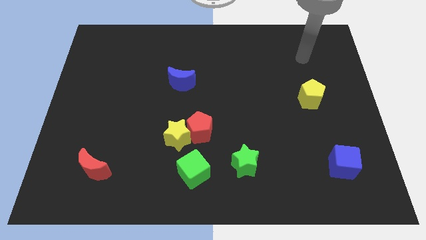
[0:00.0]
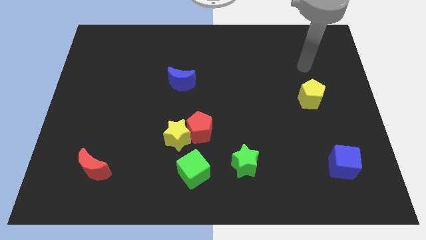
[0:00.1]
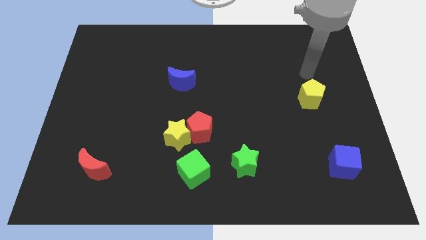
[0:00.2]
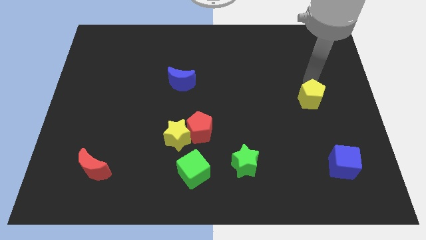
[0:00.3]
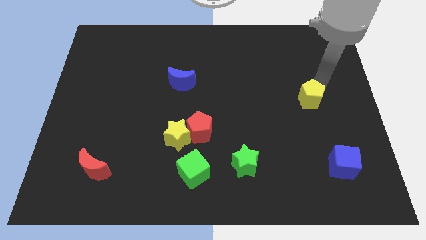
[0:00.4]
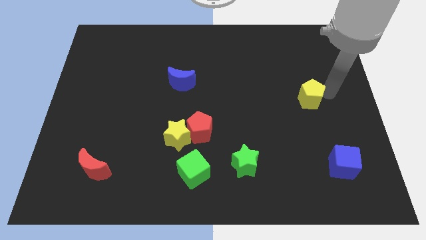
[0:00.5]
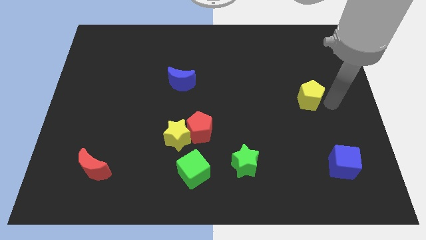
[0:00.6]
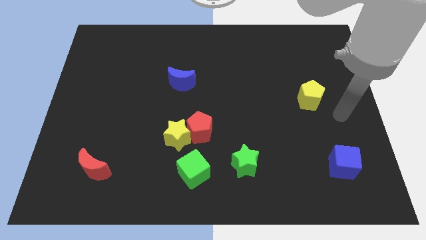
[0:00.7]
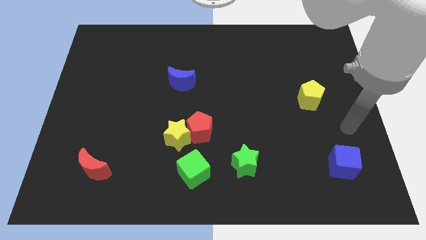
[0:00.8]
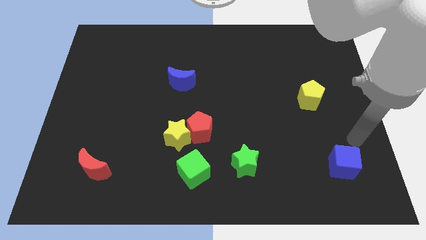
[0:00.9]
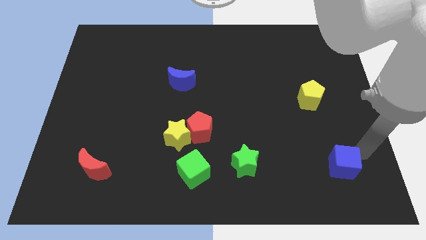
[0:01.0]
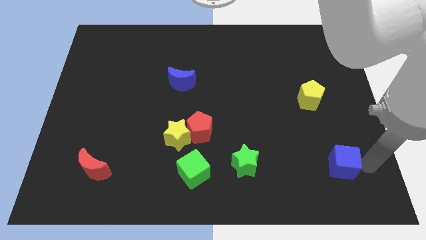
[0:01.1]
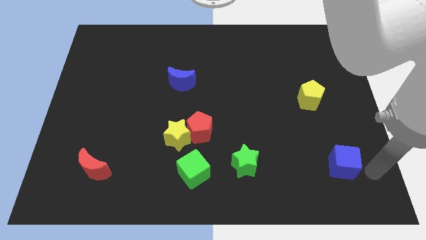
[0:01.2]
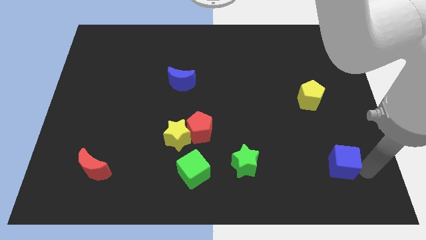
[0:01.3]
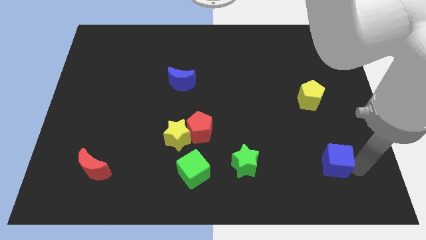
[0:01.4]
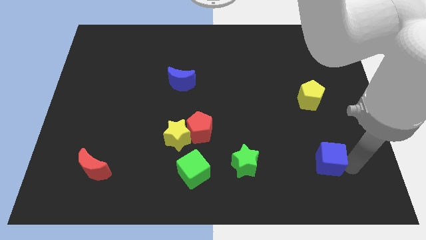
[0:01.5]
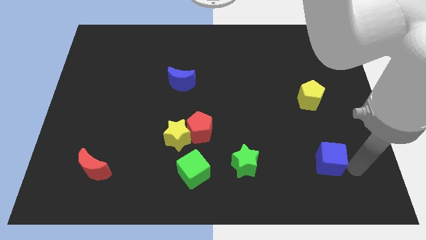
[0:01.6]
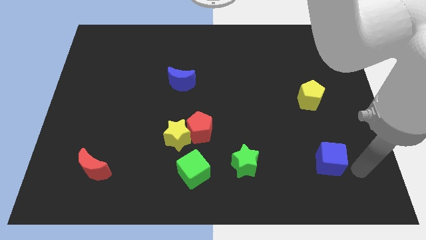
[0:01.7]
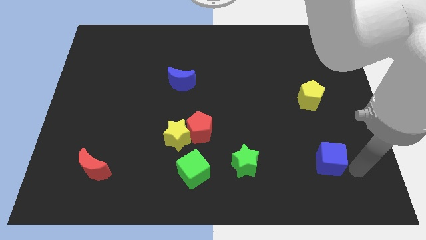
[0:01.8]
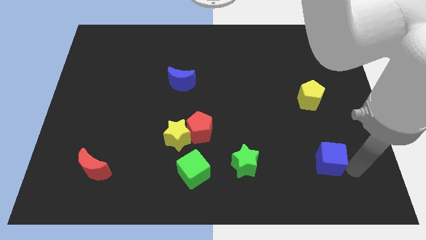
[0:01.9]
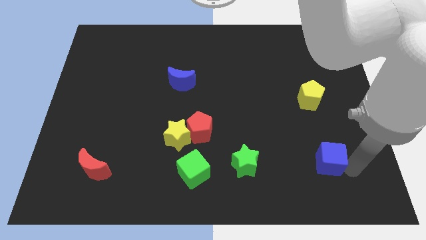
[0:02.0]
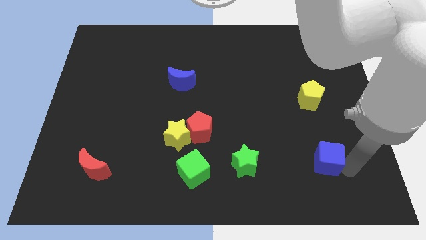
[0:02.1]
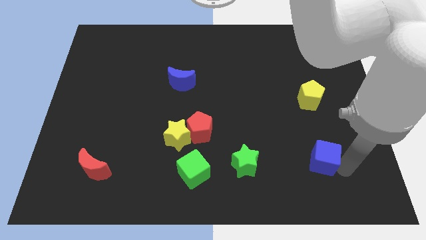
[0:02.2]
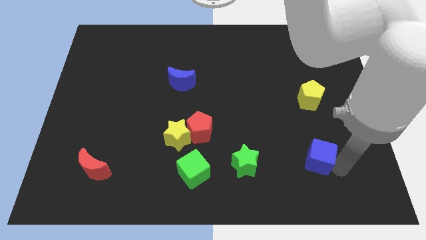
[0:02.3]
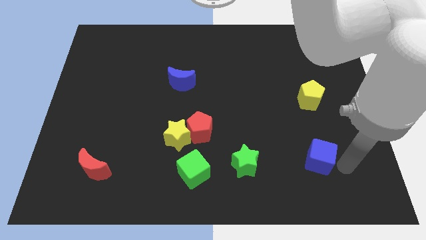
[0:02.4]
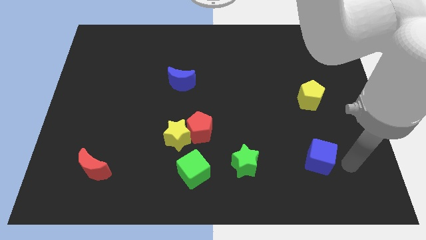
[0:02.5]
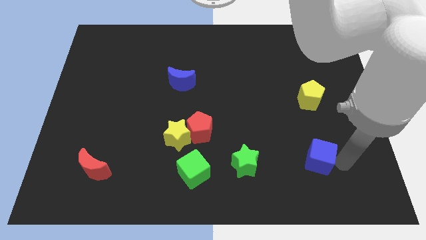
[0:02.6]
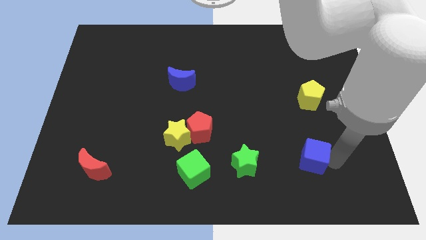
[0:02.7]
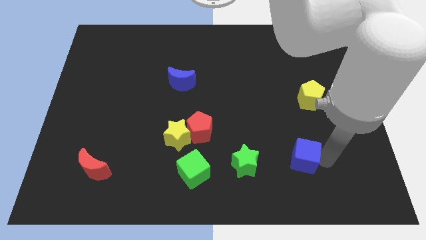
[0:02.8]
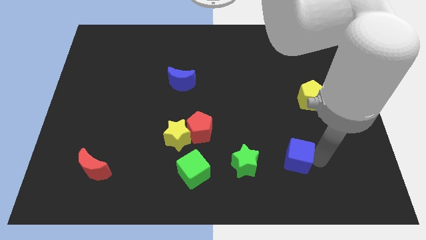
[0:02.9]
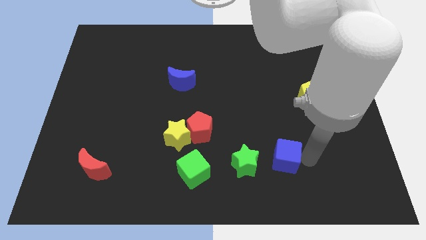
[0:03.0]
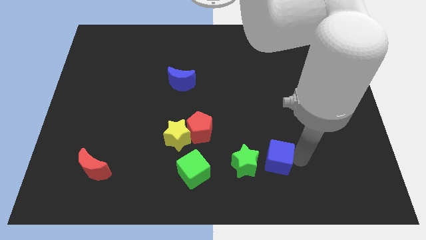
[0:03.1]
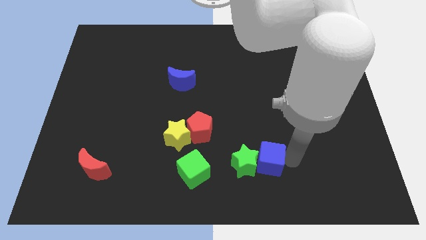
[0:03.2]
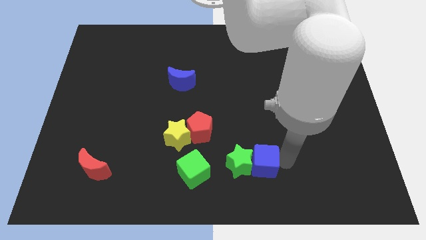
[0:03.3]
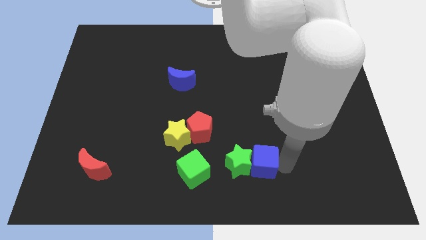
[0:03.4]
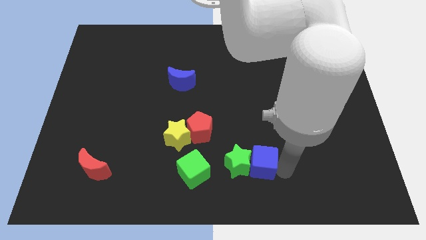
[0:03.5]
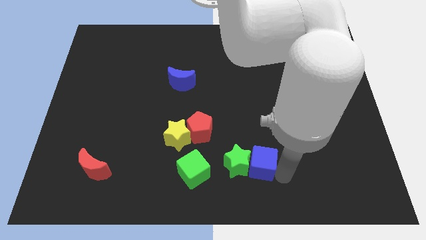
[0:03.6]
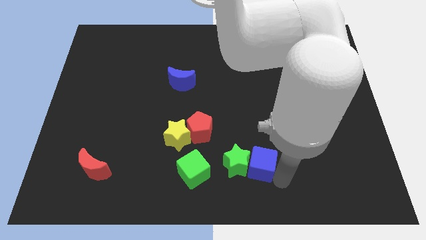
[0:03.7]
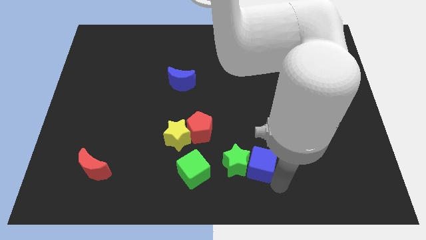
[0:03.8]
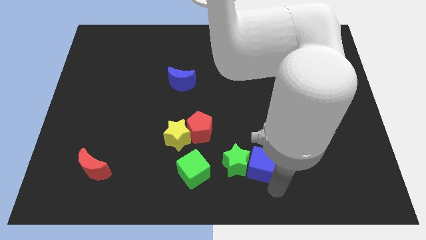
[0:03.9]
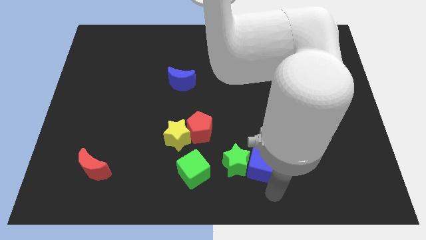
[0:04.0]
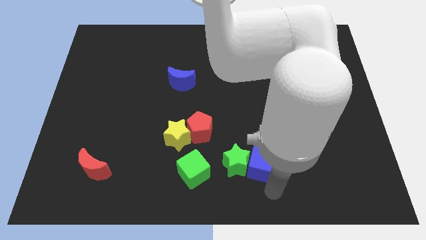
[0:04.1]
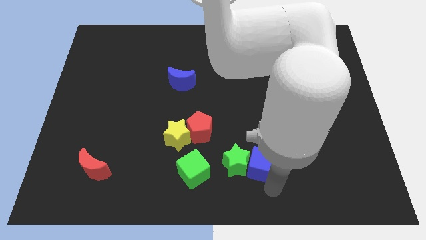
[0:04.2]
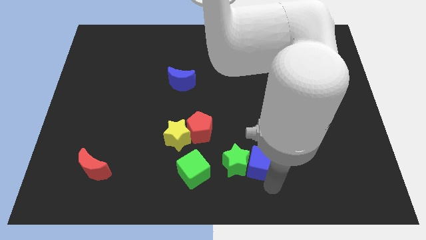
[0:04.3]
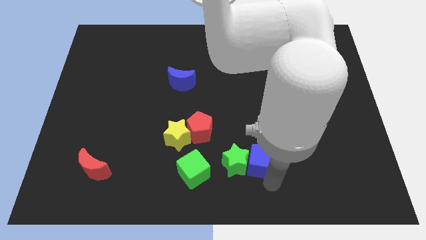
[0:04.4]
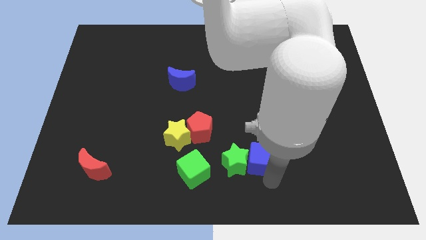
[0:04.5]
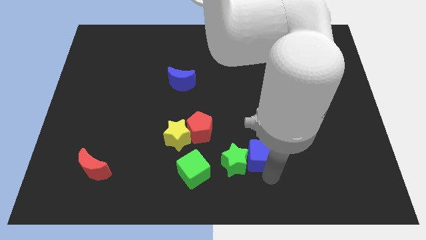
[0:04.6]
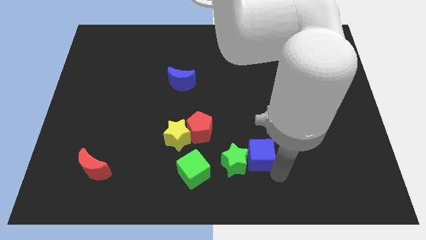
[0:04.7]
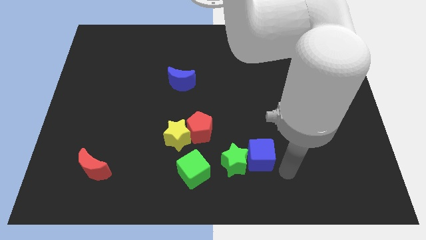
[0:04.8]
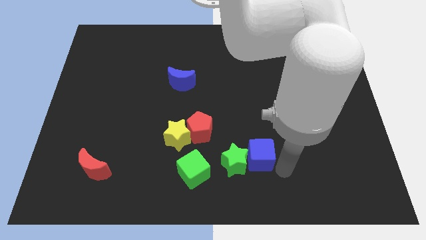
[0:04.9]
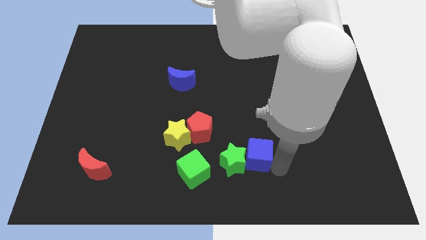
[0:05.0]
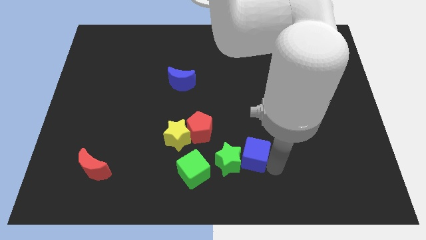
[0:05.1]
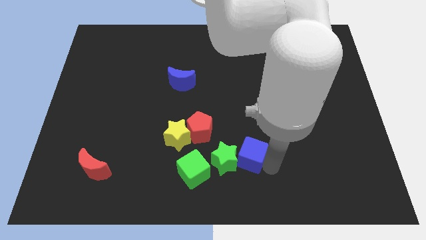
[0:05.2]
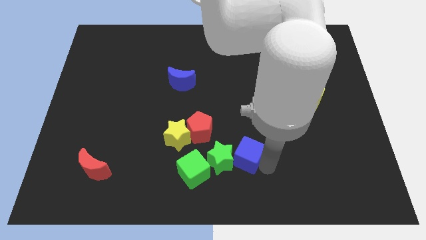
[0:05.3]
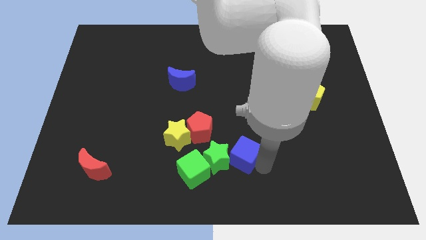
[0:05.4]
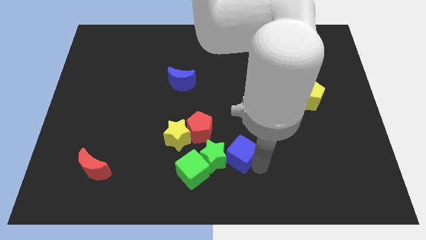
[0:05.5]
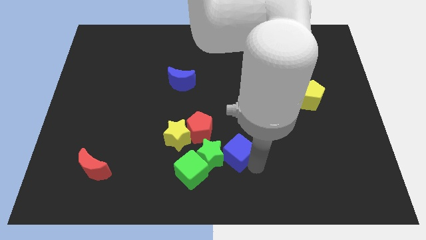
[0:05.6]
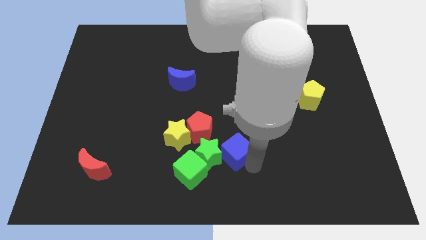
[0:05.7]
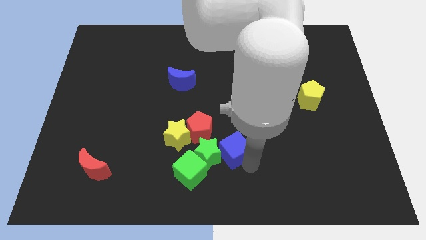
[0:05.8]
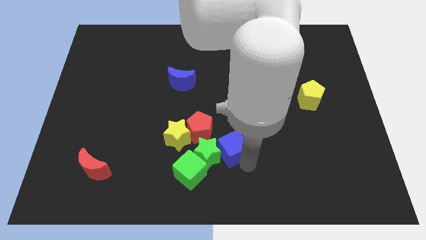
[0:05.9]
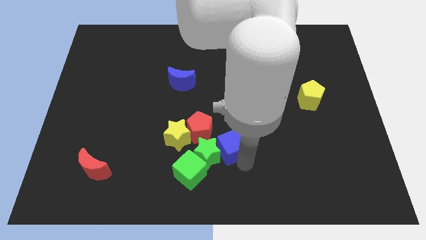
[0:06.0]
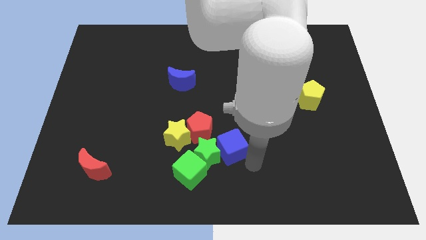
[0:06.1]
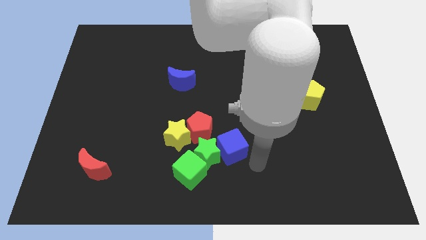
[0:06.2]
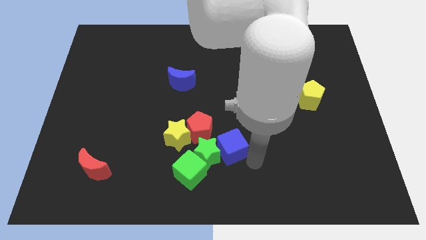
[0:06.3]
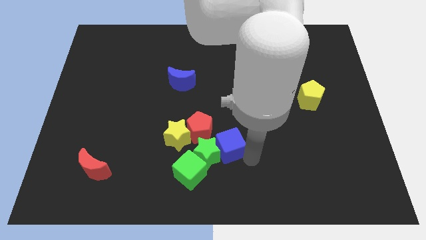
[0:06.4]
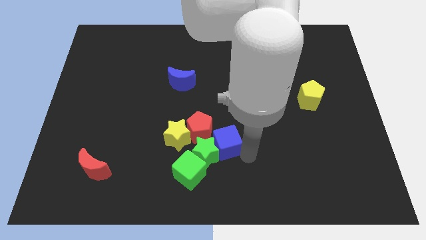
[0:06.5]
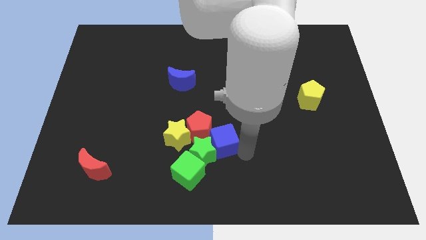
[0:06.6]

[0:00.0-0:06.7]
slide the blue cube to the red pentagon
